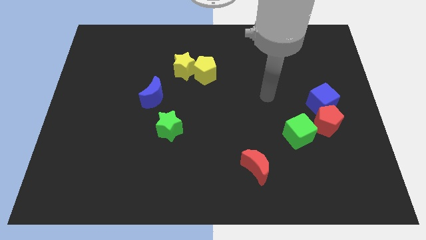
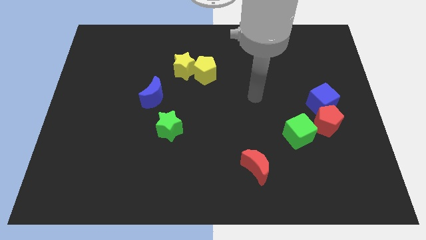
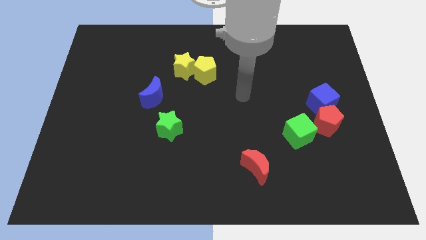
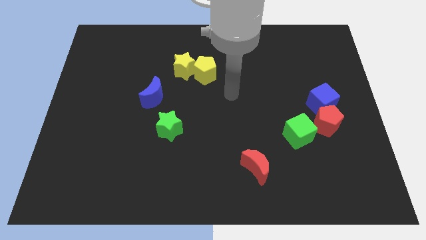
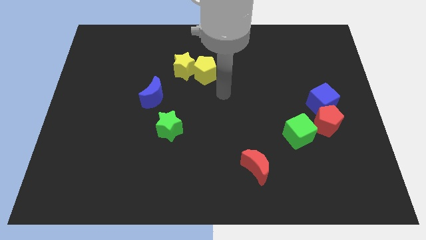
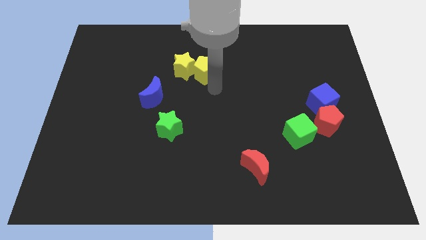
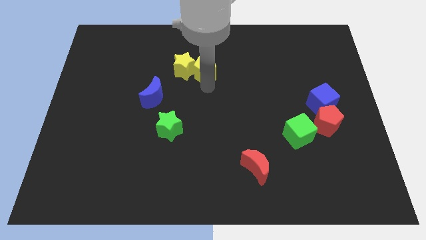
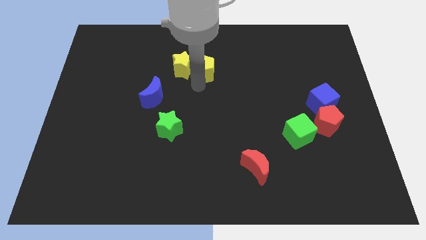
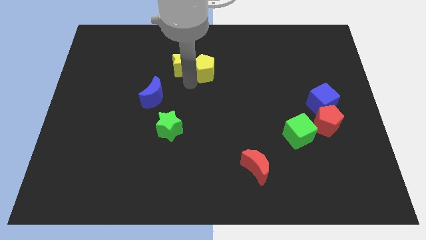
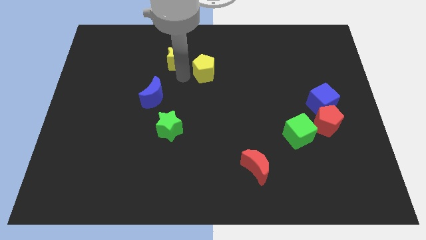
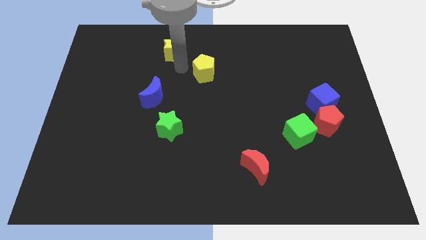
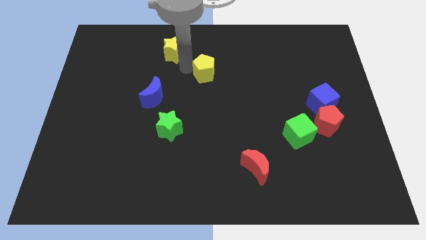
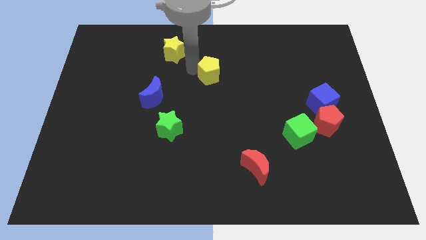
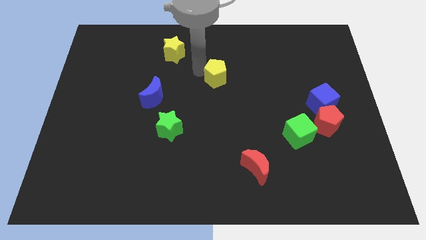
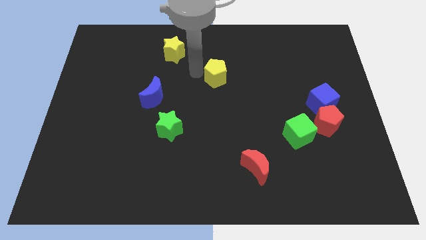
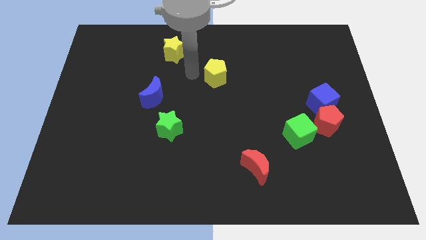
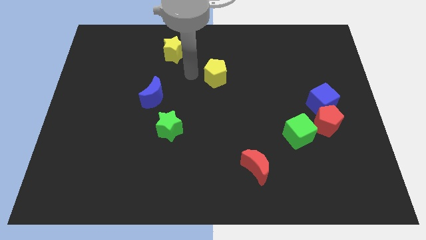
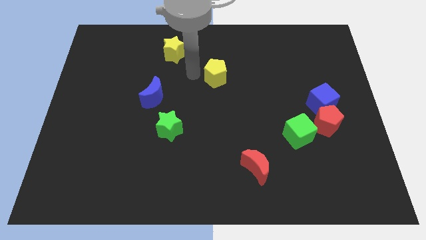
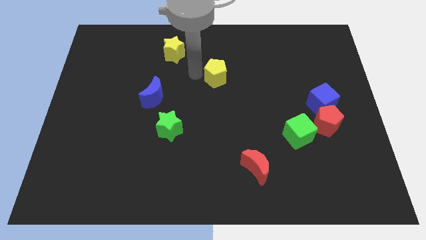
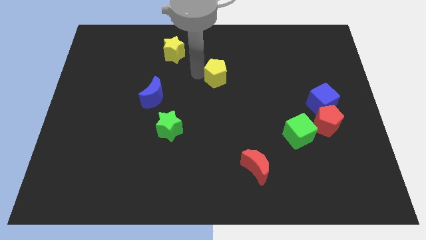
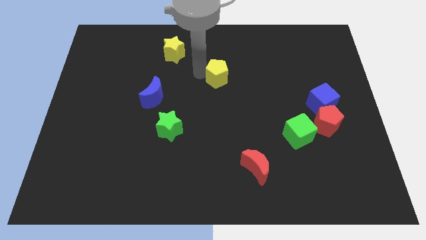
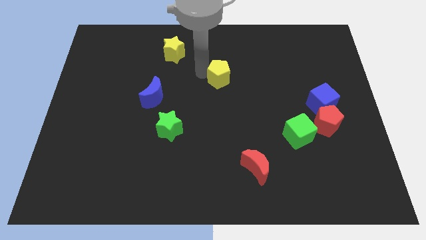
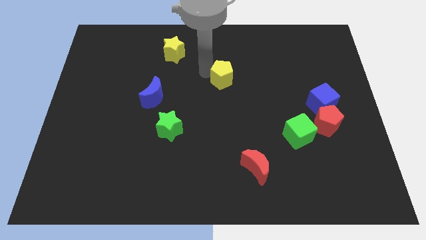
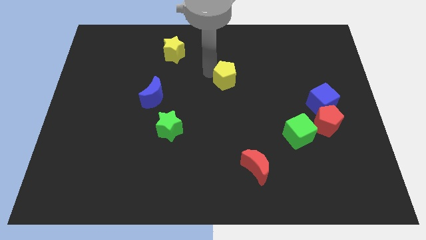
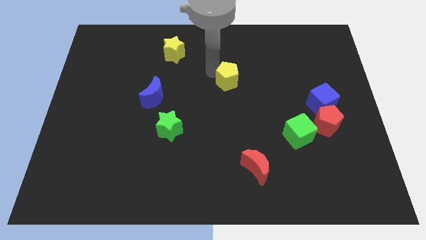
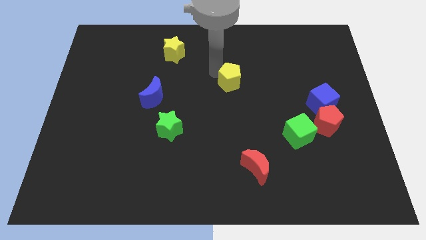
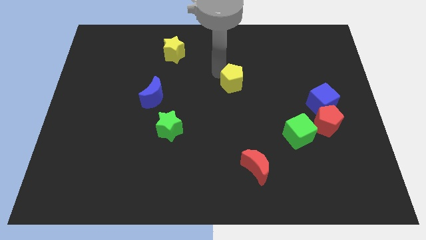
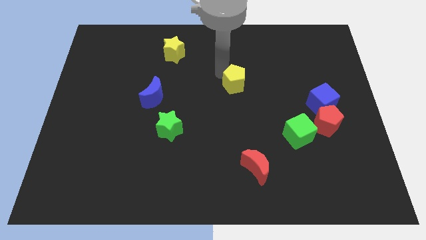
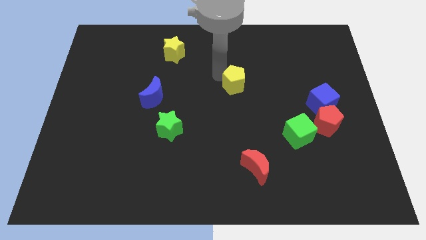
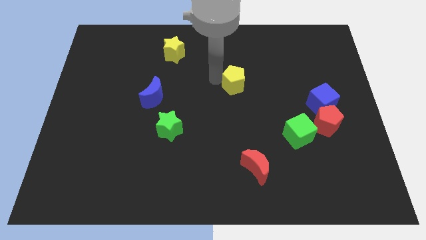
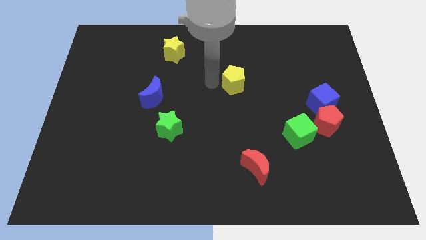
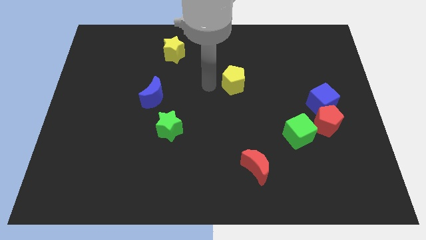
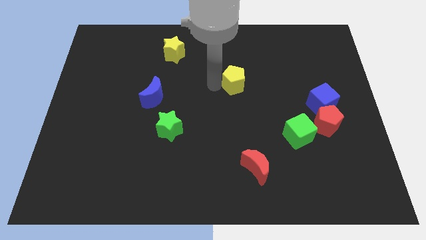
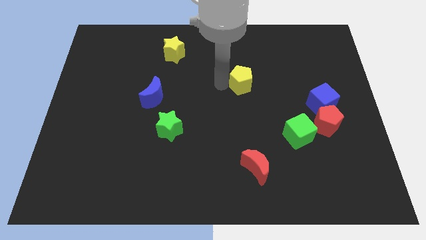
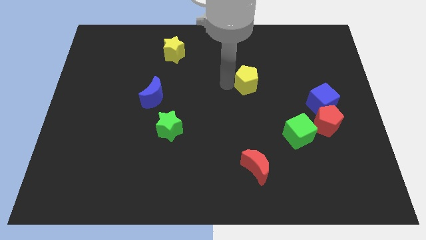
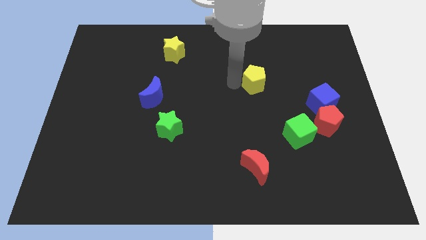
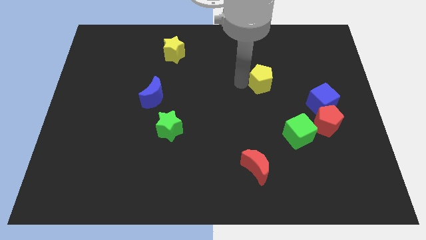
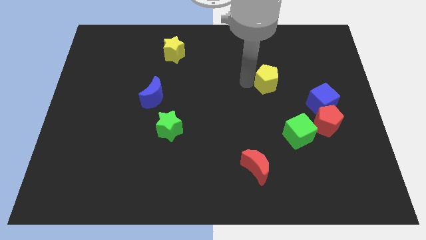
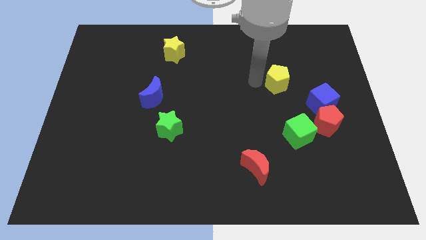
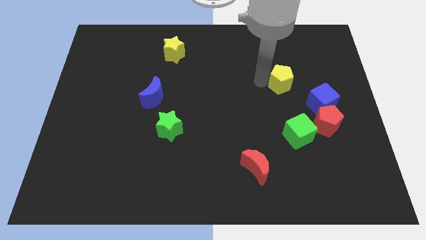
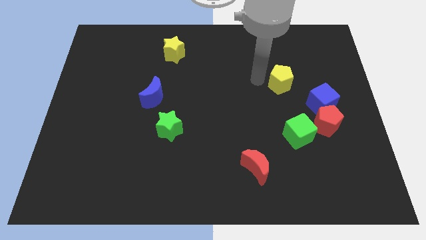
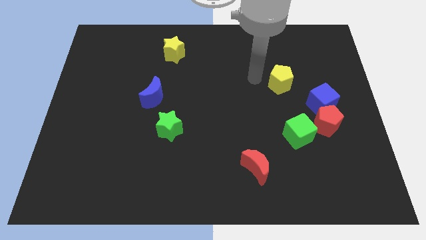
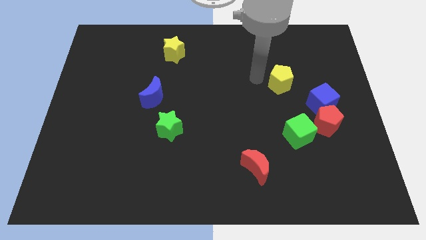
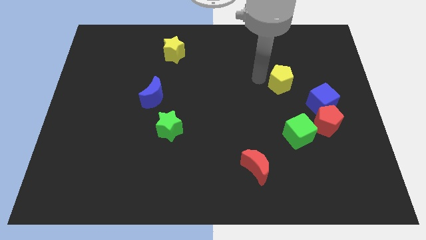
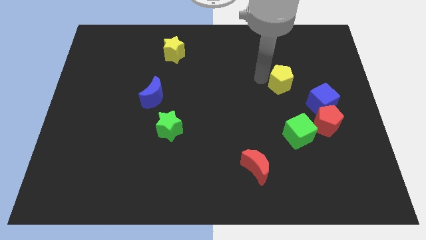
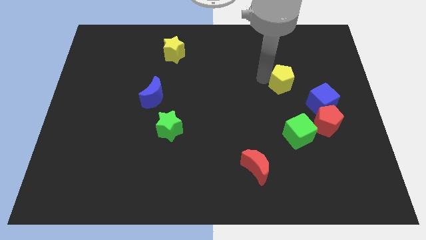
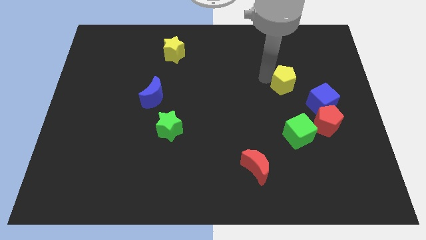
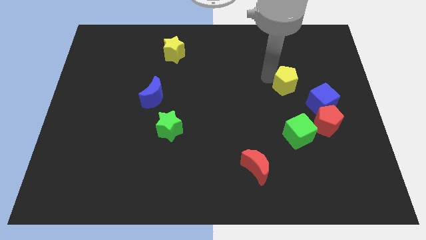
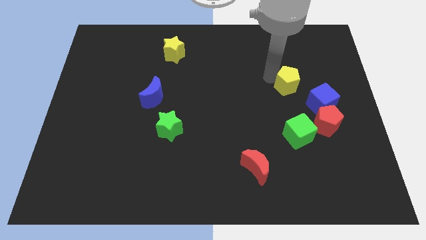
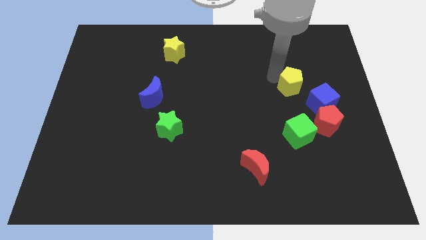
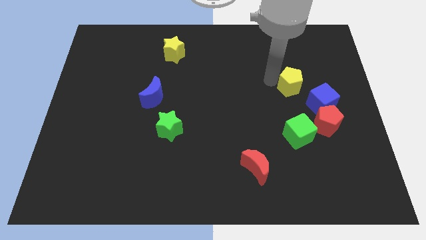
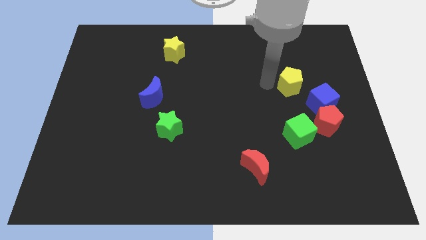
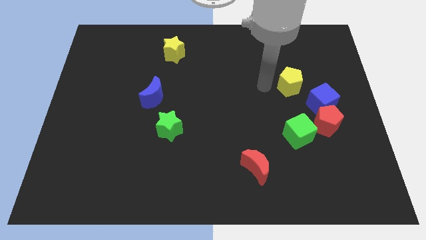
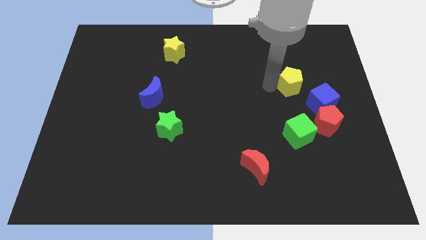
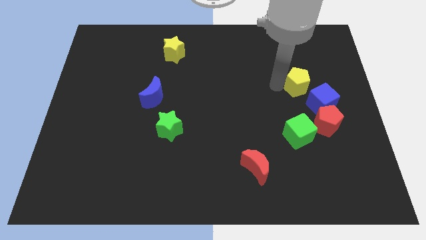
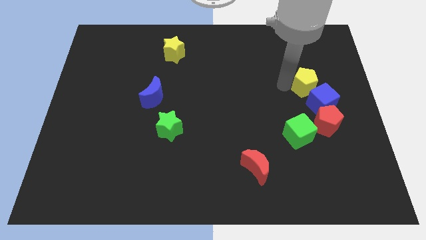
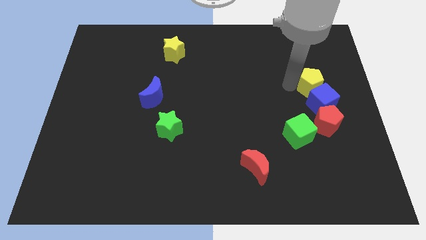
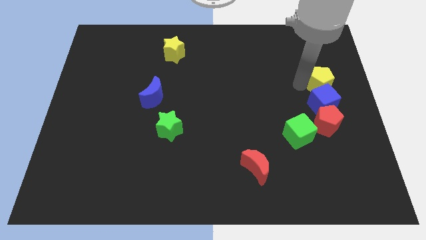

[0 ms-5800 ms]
slide the yellow pentagon to the center right
